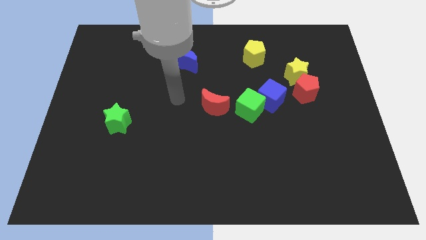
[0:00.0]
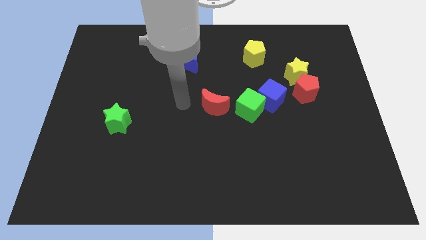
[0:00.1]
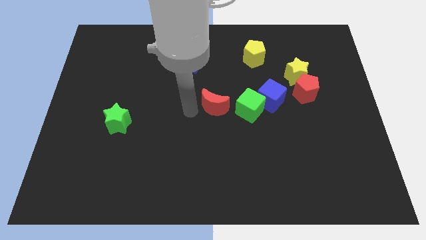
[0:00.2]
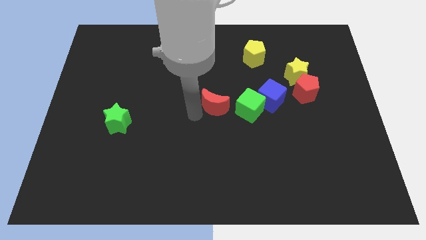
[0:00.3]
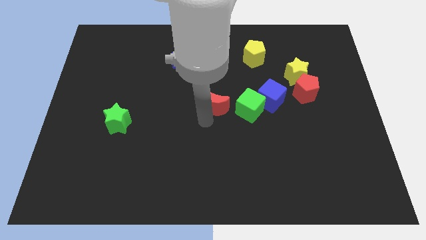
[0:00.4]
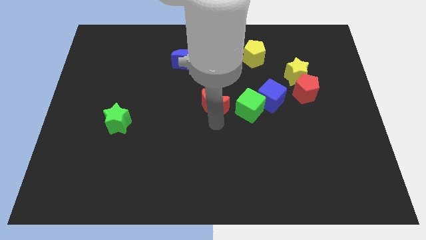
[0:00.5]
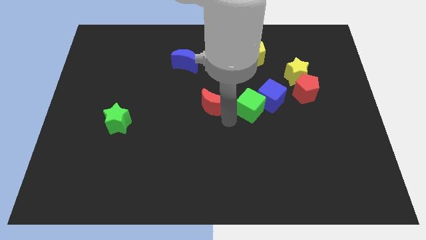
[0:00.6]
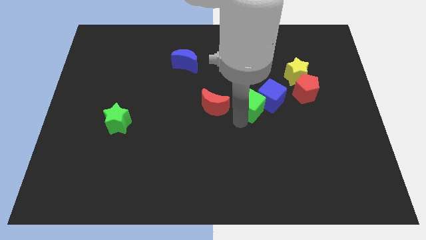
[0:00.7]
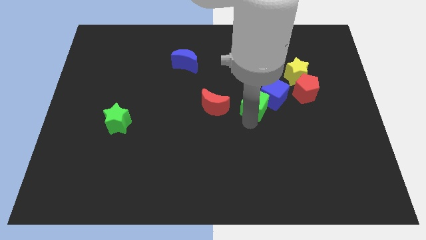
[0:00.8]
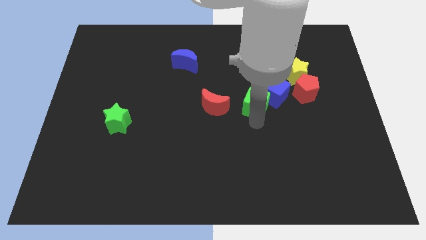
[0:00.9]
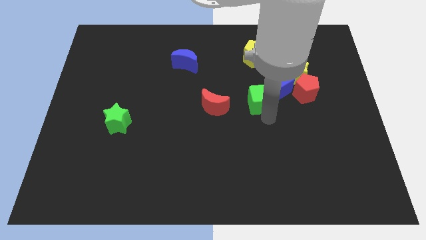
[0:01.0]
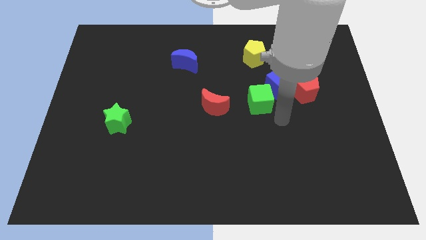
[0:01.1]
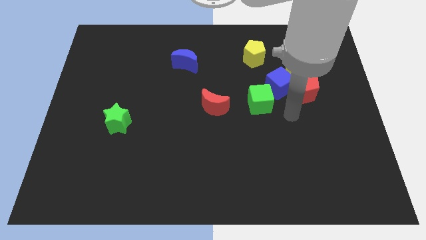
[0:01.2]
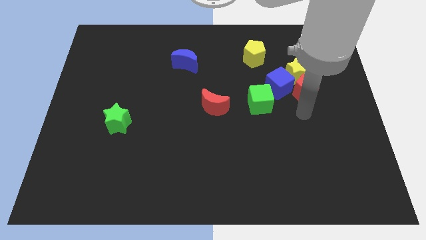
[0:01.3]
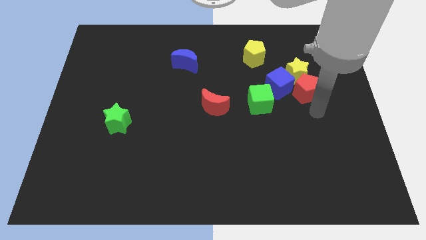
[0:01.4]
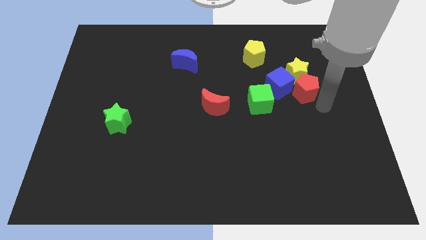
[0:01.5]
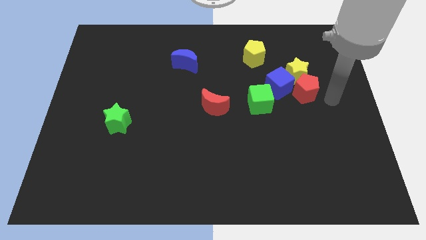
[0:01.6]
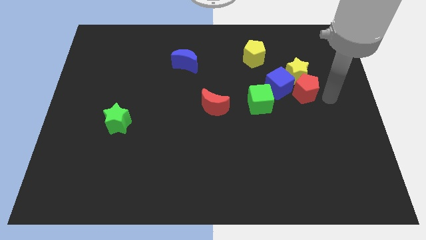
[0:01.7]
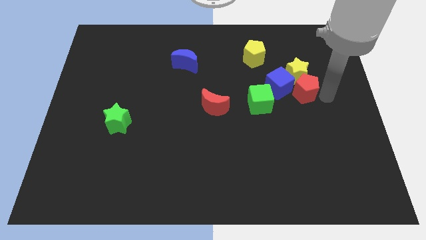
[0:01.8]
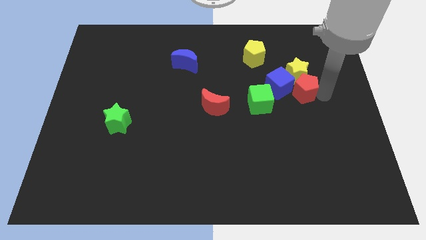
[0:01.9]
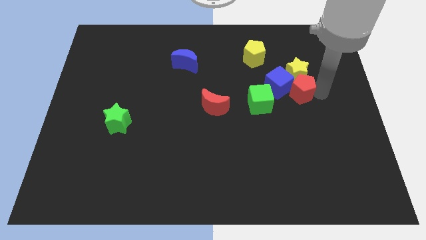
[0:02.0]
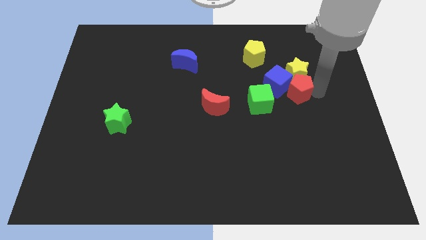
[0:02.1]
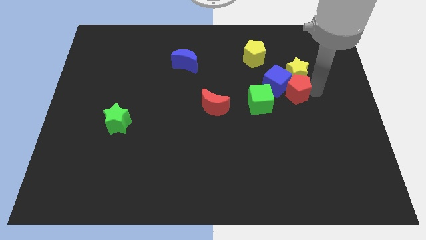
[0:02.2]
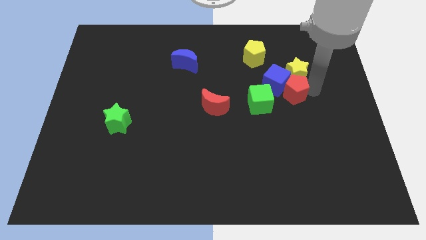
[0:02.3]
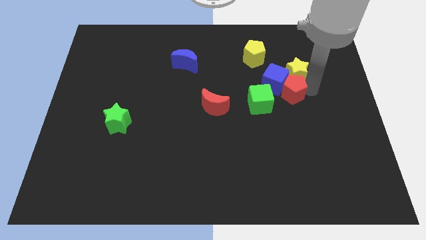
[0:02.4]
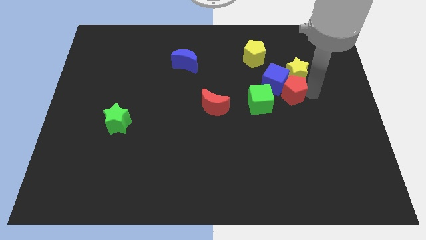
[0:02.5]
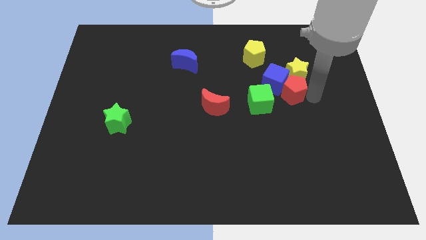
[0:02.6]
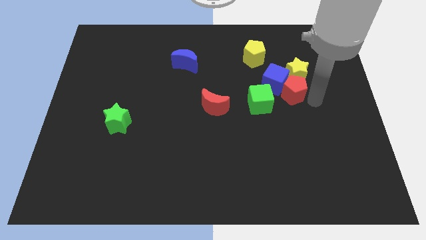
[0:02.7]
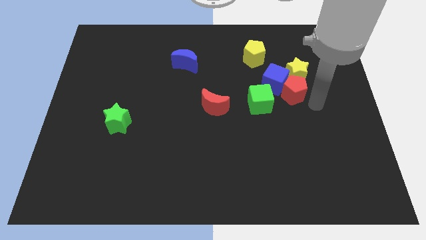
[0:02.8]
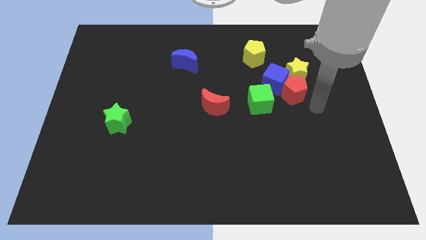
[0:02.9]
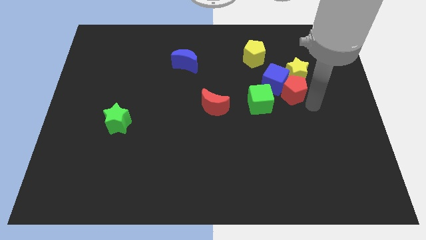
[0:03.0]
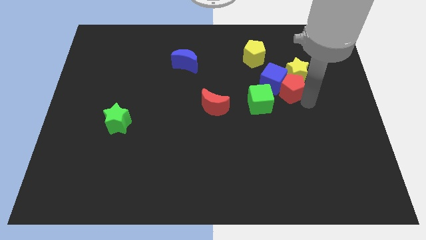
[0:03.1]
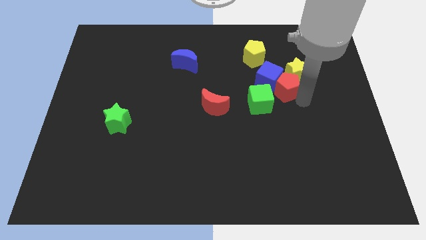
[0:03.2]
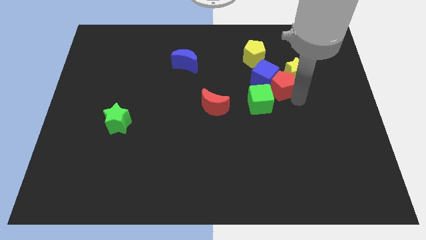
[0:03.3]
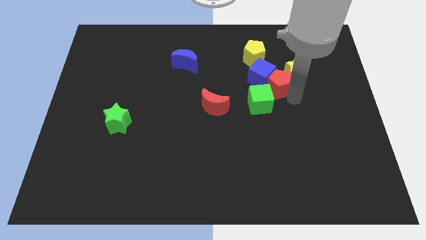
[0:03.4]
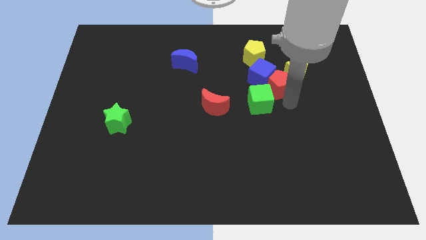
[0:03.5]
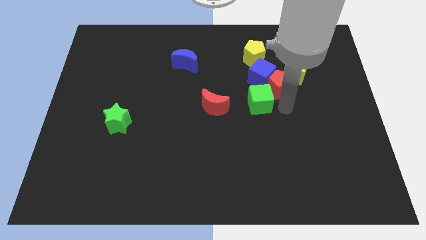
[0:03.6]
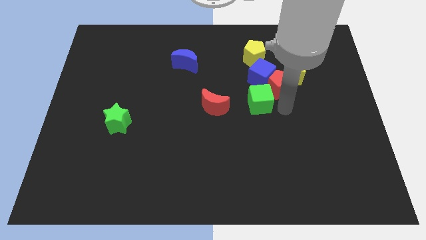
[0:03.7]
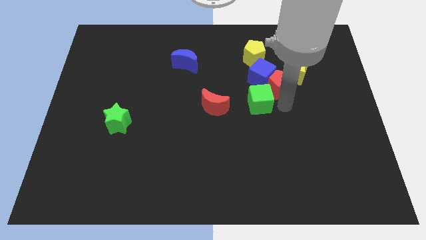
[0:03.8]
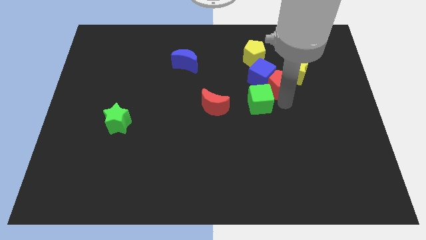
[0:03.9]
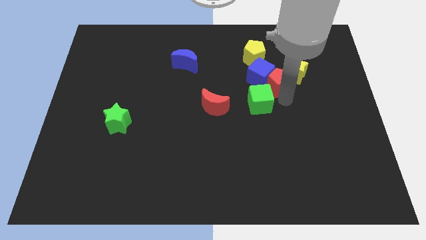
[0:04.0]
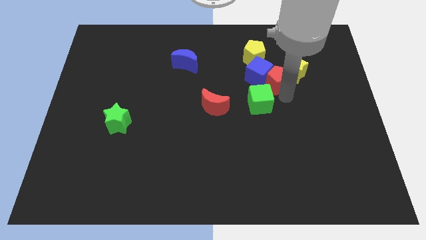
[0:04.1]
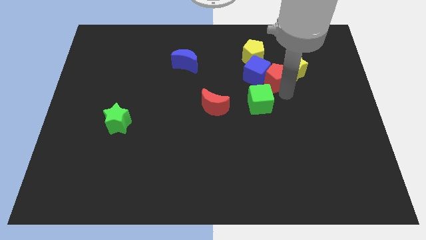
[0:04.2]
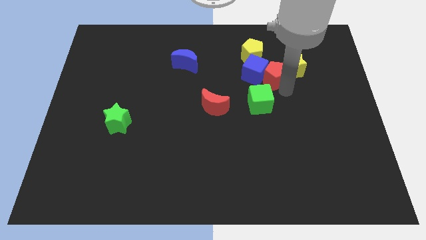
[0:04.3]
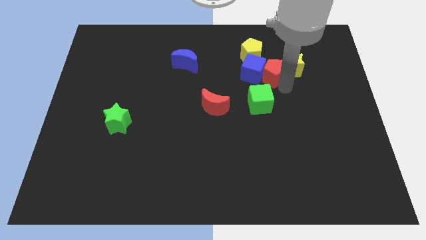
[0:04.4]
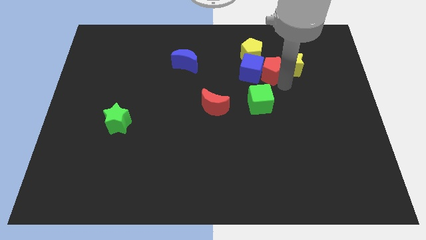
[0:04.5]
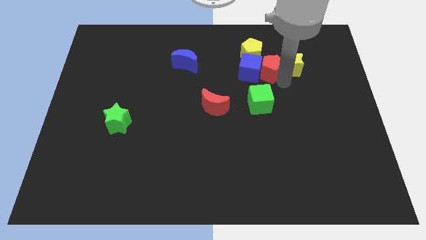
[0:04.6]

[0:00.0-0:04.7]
push the red pentagon to the top left of the yellow star

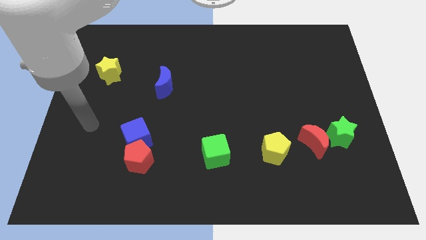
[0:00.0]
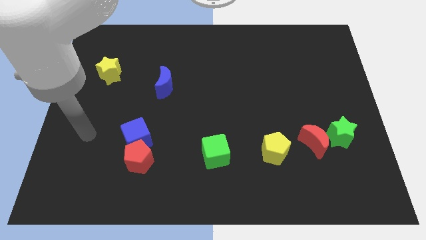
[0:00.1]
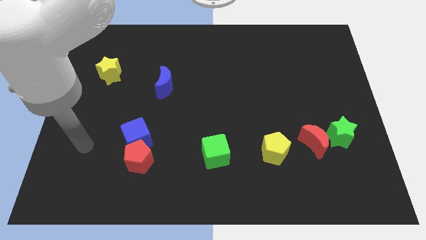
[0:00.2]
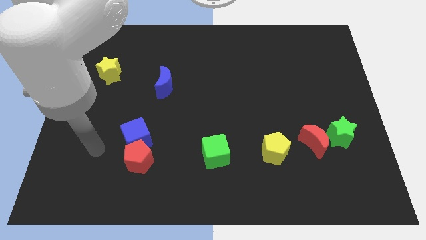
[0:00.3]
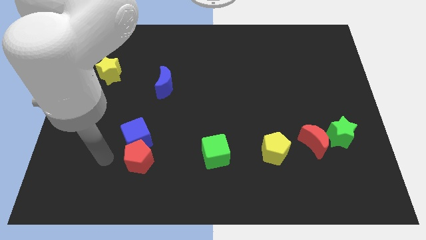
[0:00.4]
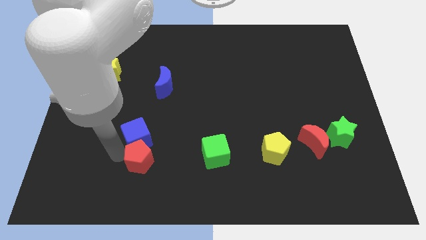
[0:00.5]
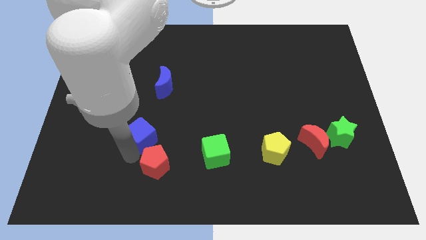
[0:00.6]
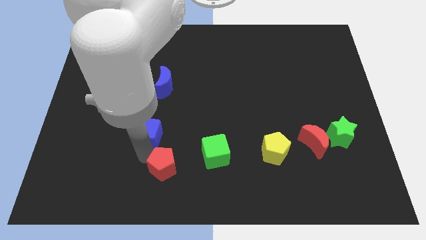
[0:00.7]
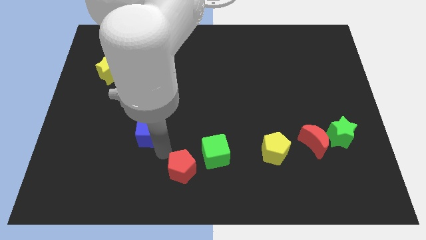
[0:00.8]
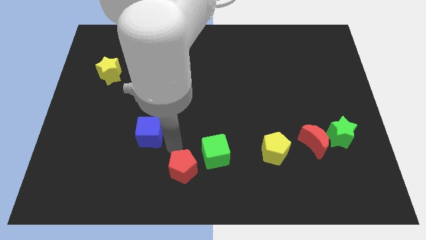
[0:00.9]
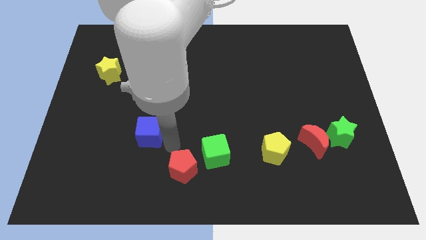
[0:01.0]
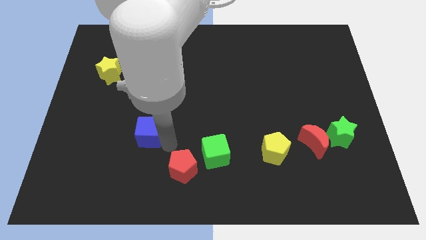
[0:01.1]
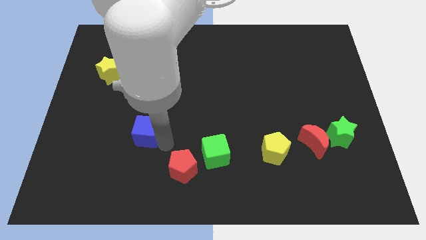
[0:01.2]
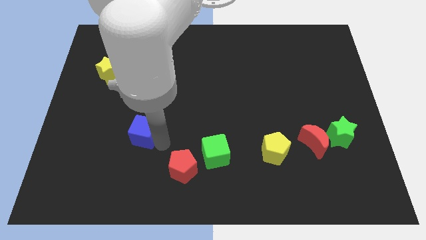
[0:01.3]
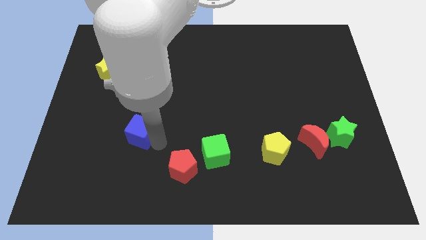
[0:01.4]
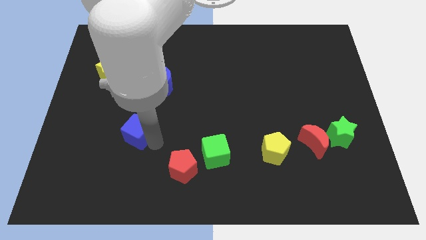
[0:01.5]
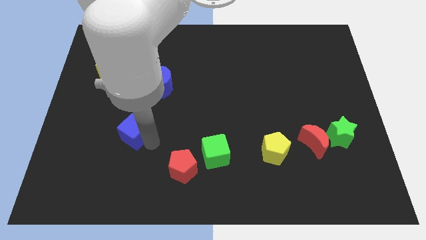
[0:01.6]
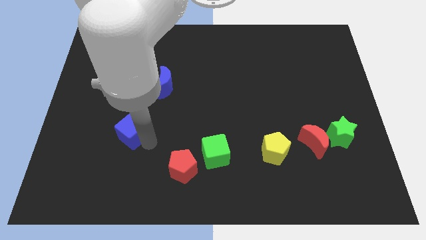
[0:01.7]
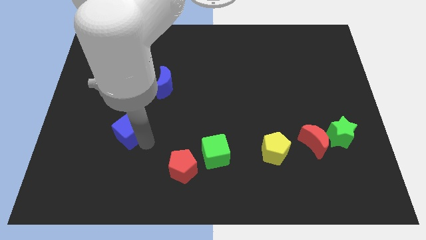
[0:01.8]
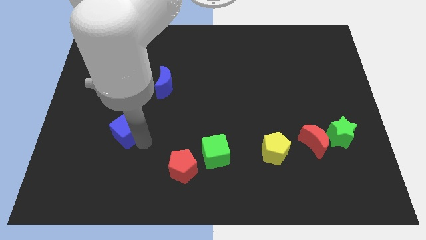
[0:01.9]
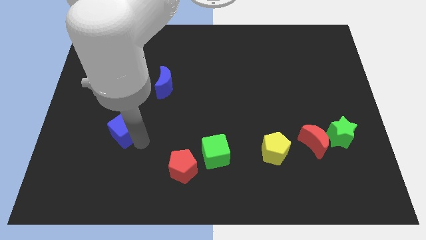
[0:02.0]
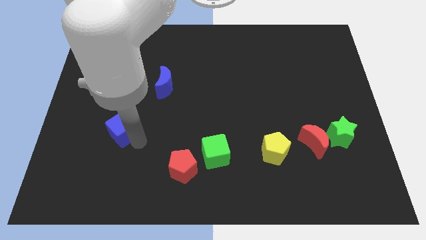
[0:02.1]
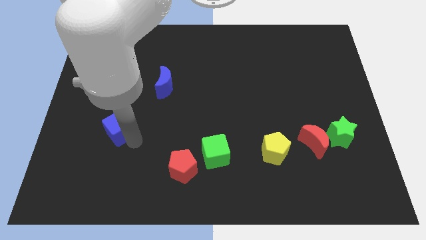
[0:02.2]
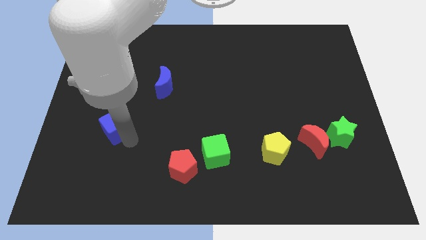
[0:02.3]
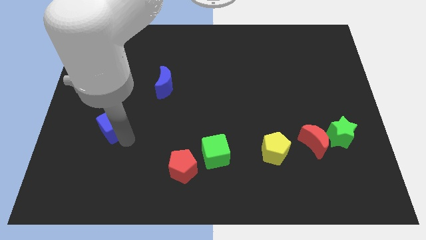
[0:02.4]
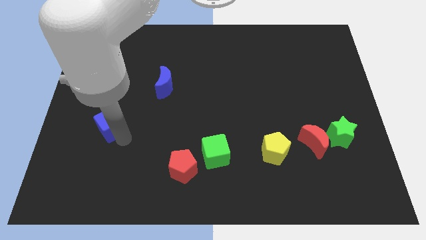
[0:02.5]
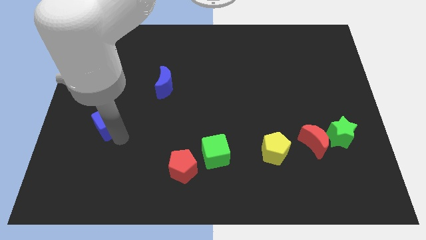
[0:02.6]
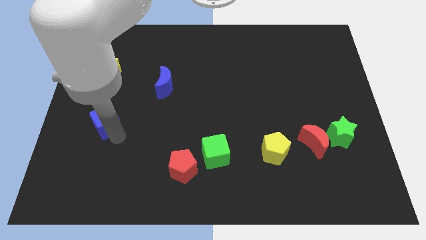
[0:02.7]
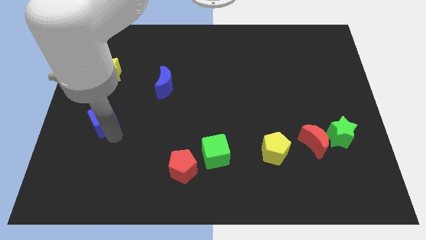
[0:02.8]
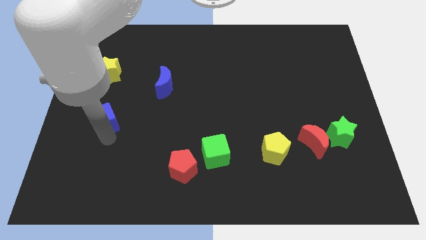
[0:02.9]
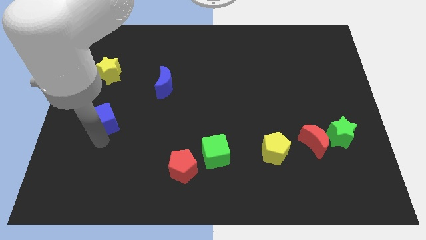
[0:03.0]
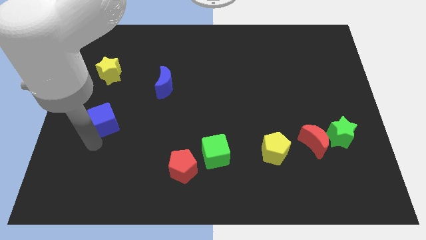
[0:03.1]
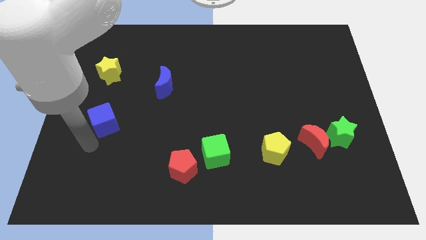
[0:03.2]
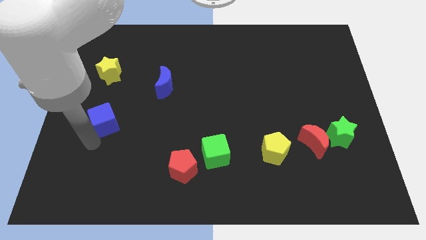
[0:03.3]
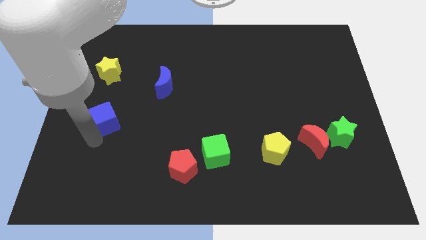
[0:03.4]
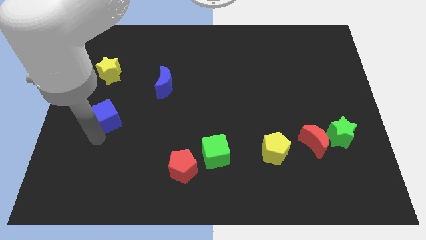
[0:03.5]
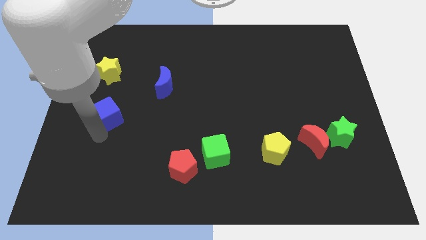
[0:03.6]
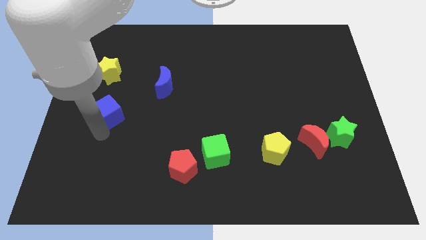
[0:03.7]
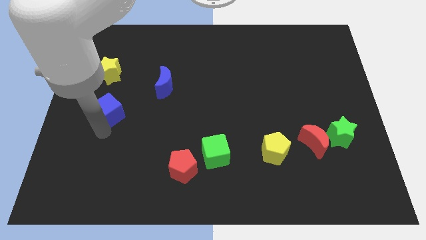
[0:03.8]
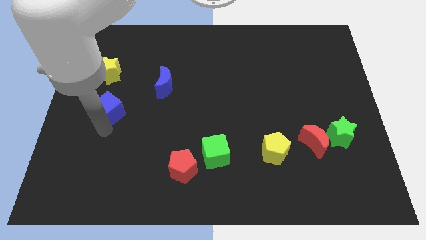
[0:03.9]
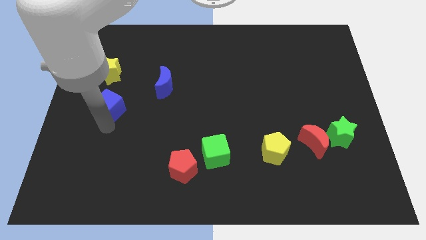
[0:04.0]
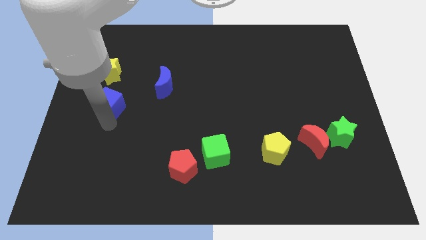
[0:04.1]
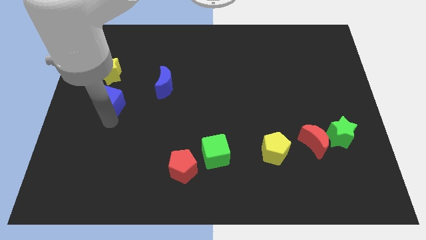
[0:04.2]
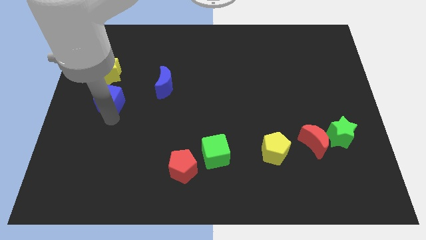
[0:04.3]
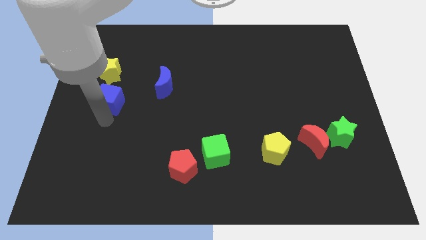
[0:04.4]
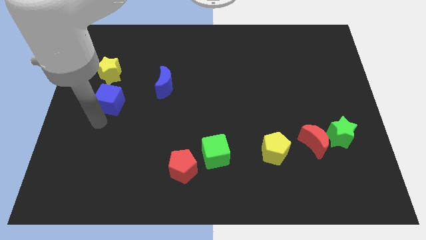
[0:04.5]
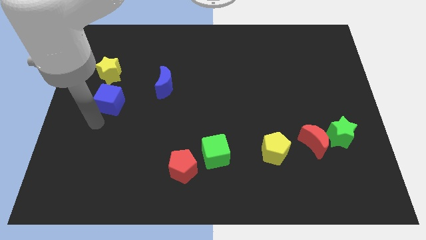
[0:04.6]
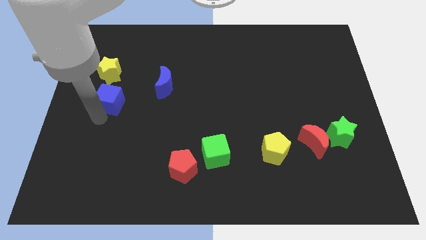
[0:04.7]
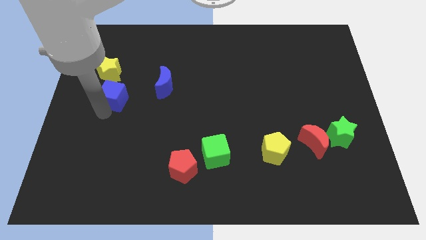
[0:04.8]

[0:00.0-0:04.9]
slide the blue cube just left of the blue moon
